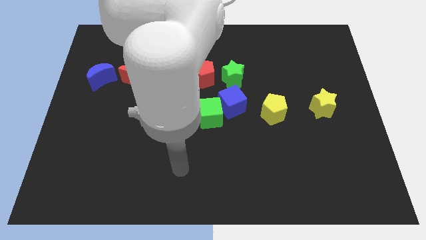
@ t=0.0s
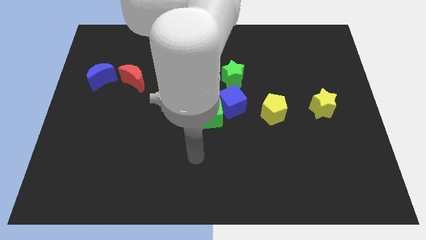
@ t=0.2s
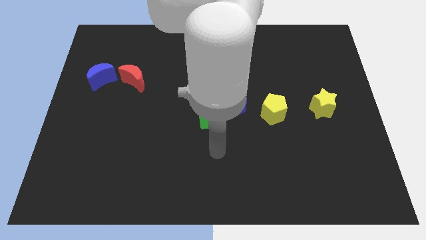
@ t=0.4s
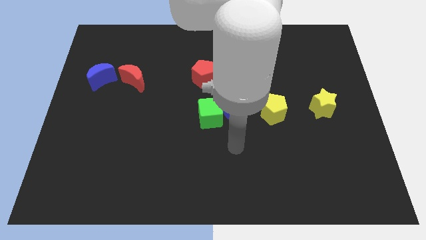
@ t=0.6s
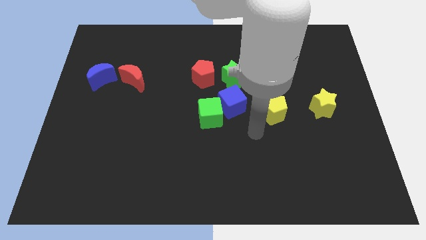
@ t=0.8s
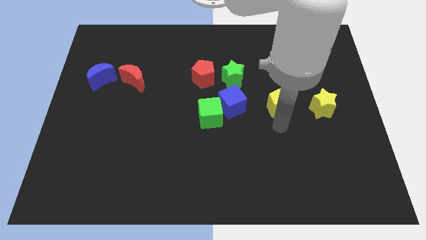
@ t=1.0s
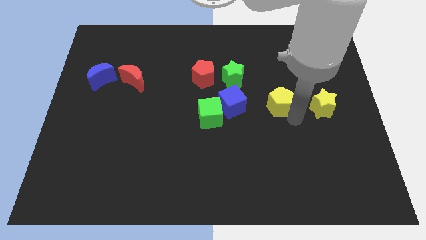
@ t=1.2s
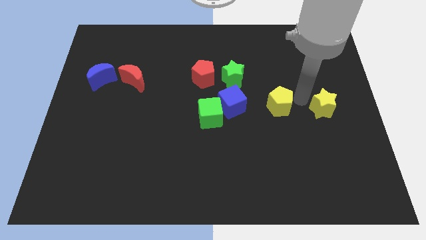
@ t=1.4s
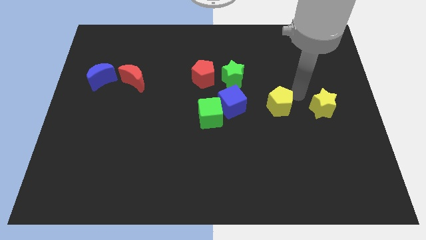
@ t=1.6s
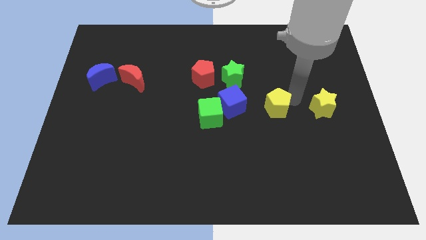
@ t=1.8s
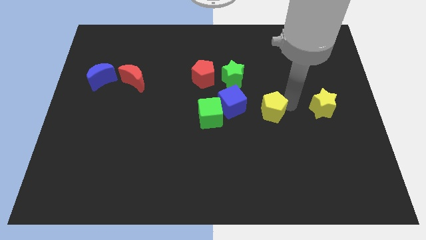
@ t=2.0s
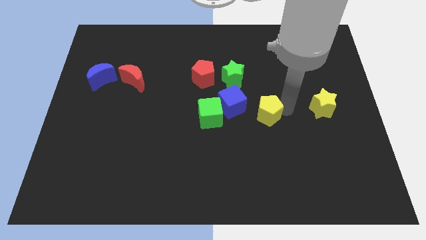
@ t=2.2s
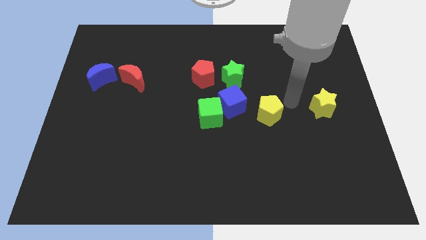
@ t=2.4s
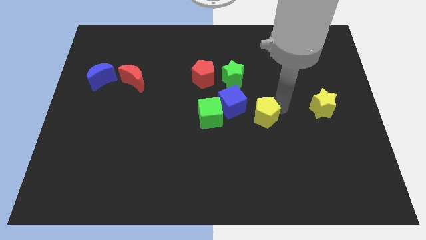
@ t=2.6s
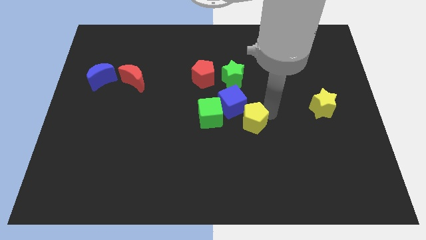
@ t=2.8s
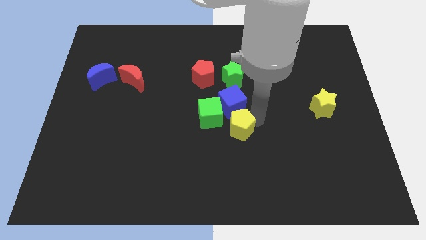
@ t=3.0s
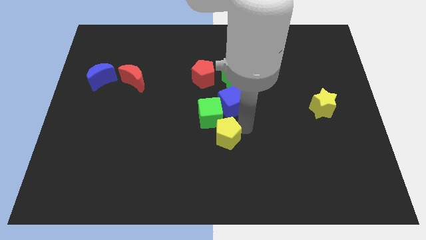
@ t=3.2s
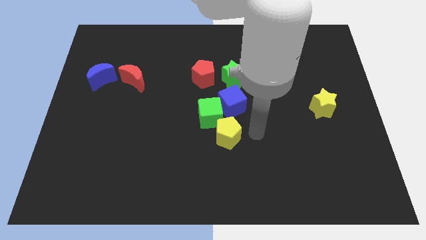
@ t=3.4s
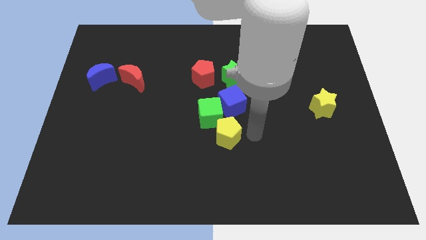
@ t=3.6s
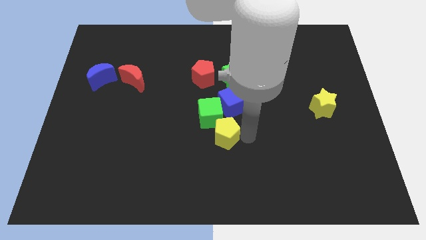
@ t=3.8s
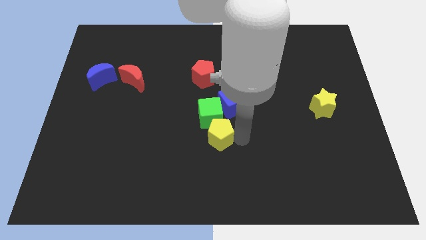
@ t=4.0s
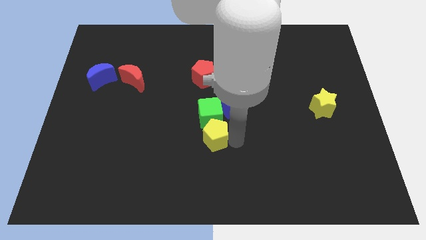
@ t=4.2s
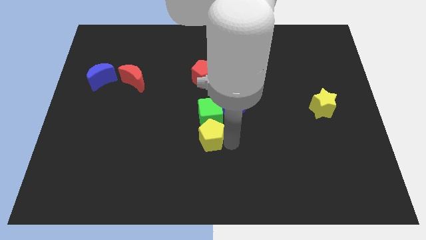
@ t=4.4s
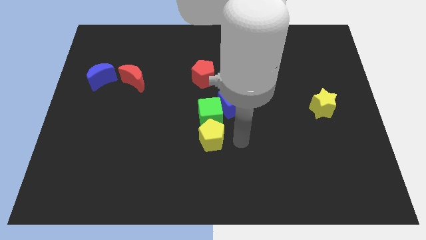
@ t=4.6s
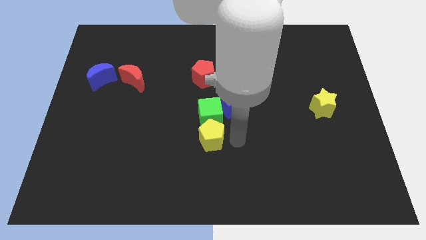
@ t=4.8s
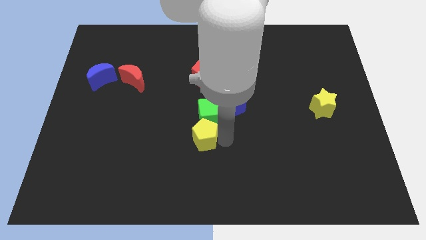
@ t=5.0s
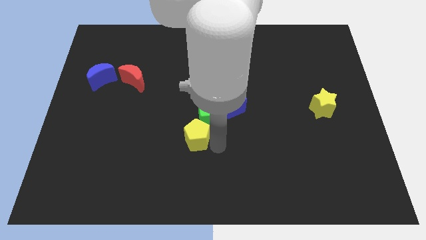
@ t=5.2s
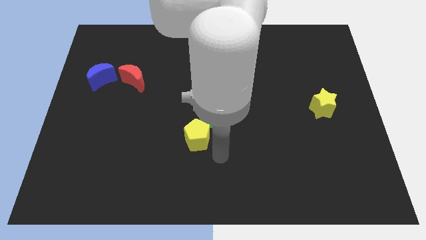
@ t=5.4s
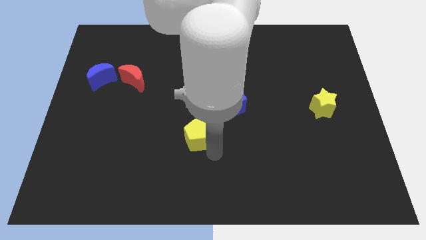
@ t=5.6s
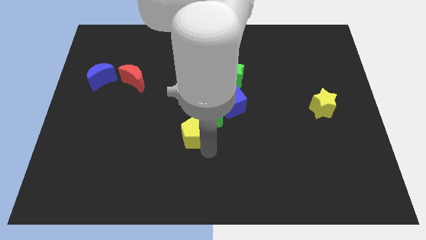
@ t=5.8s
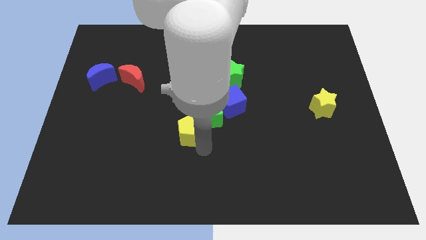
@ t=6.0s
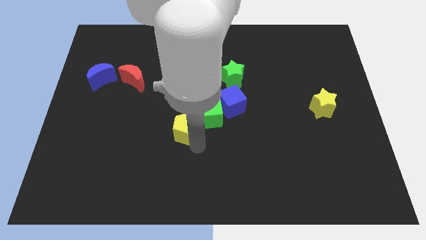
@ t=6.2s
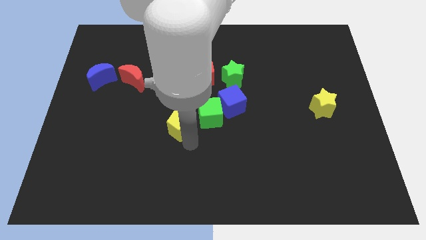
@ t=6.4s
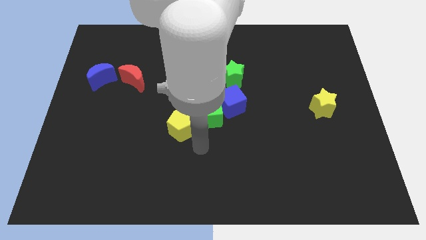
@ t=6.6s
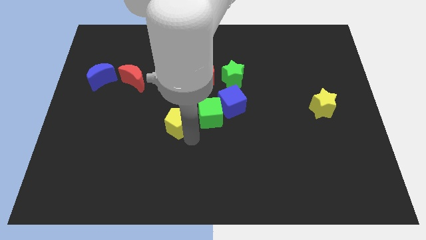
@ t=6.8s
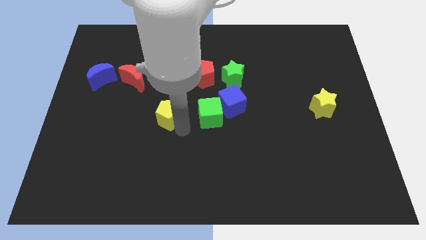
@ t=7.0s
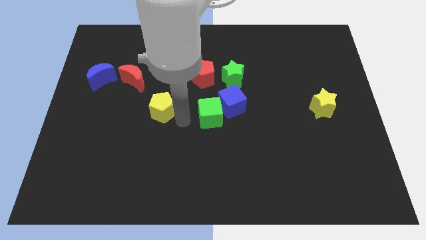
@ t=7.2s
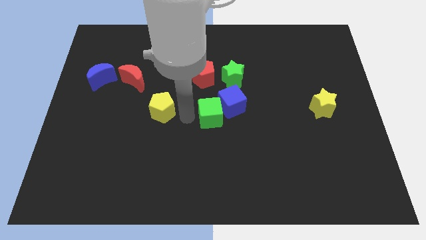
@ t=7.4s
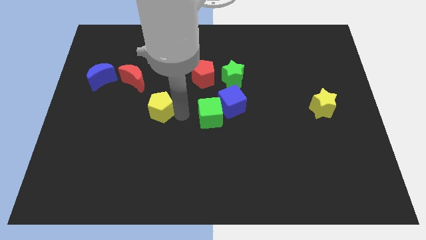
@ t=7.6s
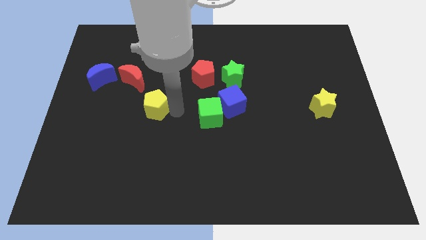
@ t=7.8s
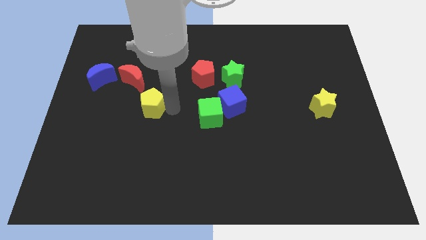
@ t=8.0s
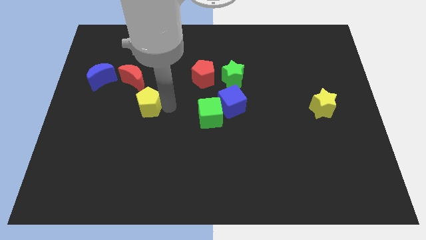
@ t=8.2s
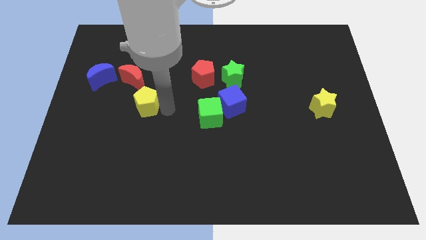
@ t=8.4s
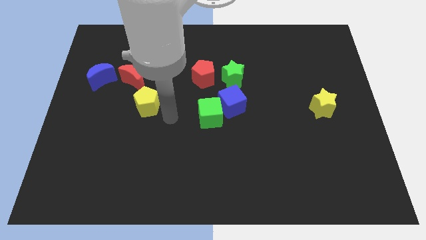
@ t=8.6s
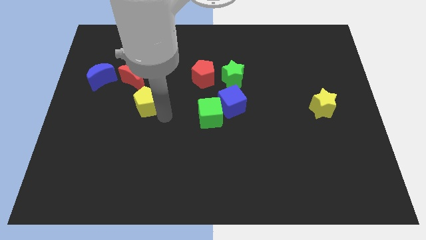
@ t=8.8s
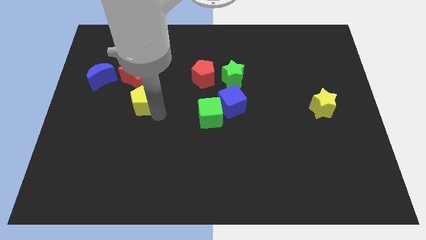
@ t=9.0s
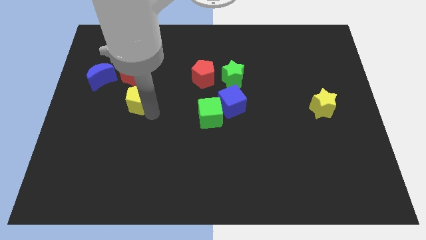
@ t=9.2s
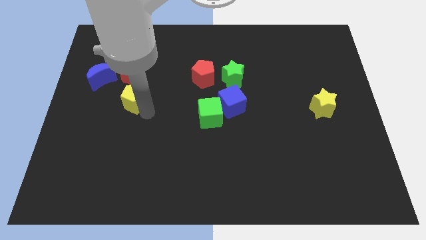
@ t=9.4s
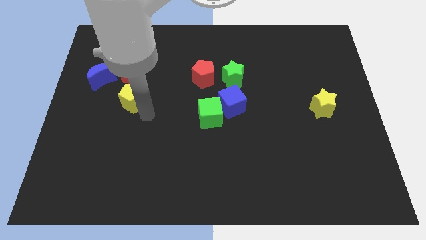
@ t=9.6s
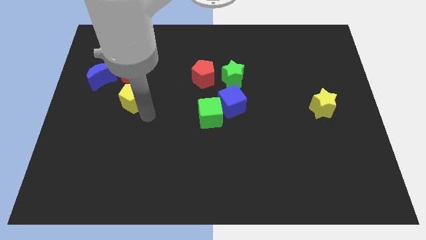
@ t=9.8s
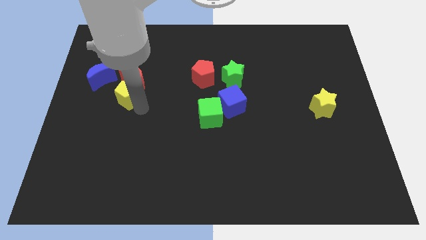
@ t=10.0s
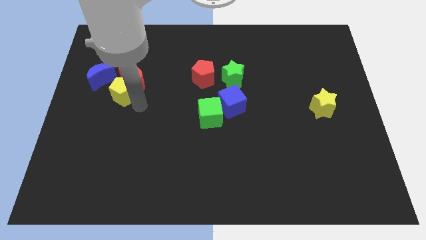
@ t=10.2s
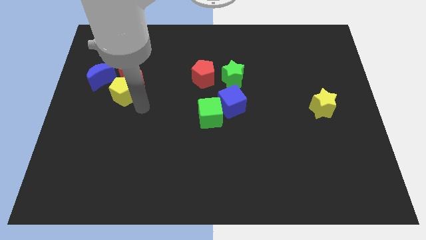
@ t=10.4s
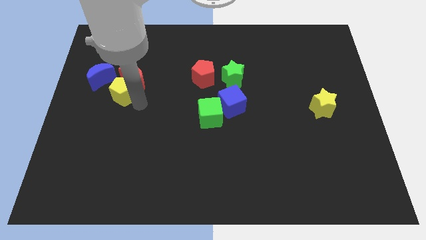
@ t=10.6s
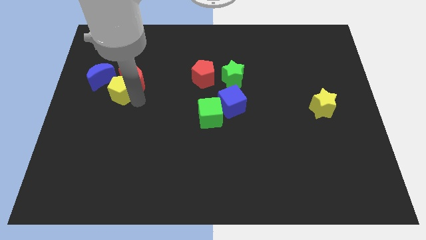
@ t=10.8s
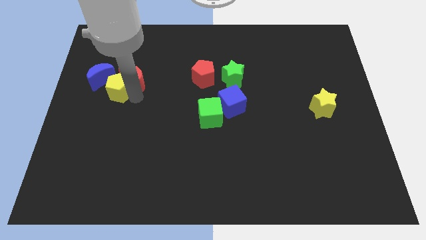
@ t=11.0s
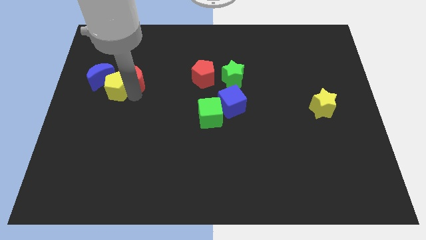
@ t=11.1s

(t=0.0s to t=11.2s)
push the yellow pentagon next to the blue moon

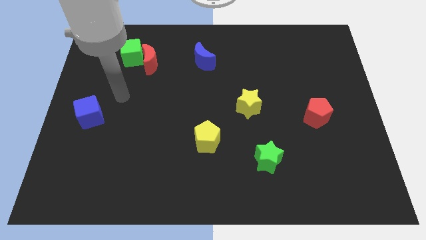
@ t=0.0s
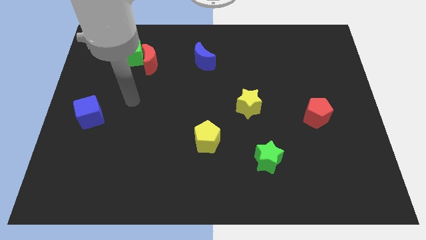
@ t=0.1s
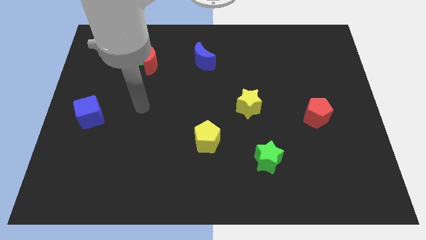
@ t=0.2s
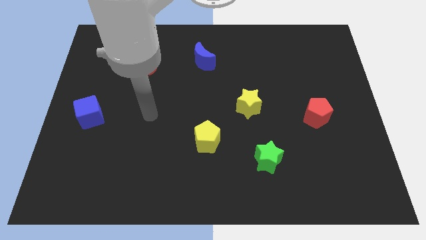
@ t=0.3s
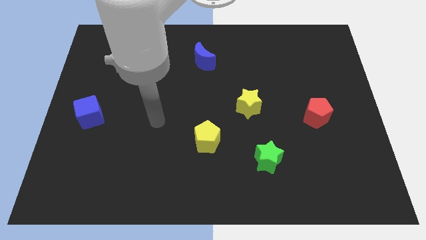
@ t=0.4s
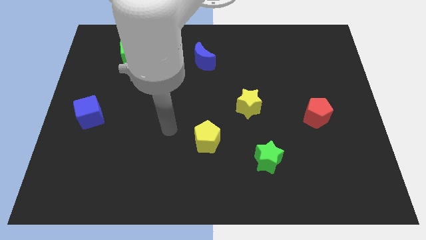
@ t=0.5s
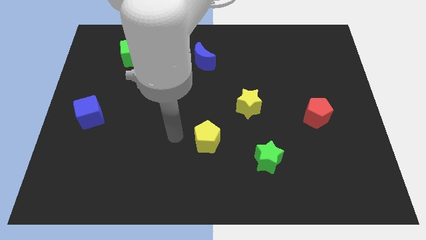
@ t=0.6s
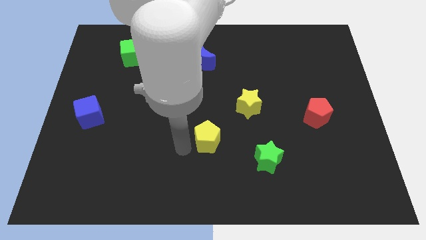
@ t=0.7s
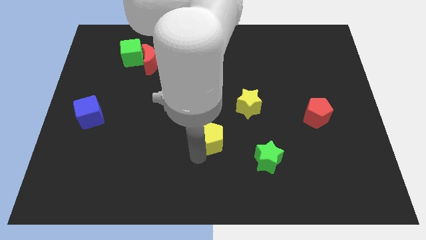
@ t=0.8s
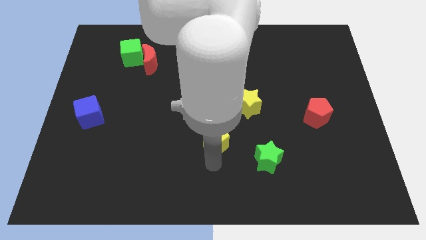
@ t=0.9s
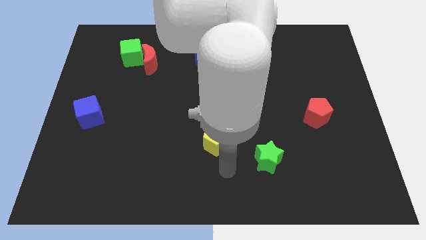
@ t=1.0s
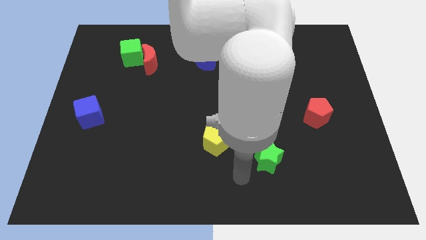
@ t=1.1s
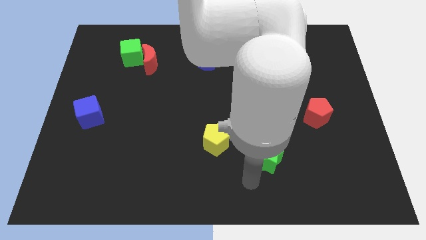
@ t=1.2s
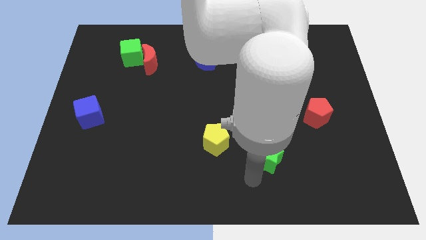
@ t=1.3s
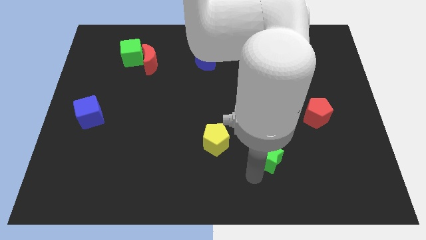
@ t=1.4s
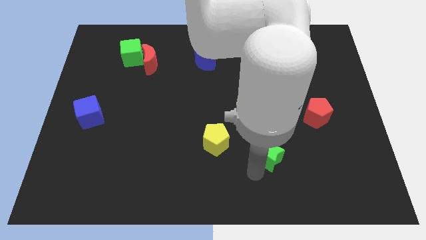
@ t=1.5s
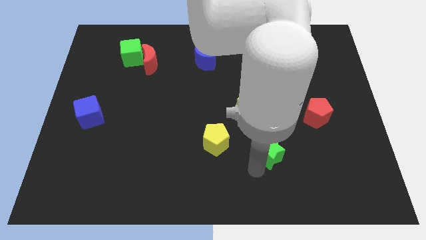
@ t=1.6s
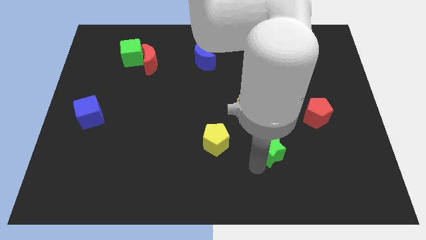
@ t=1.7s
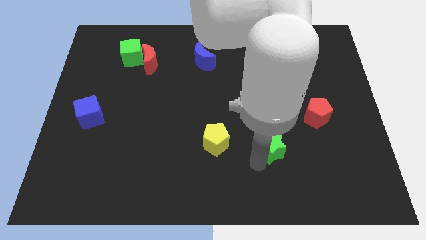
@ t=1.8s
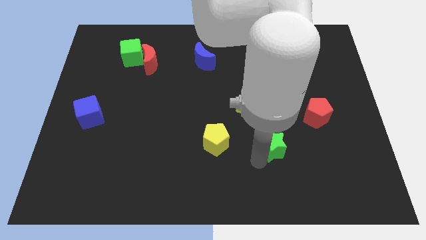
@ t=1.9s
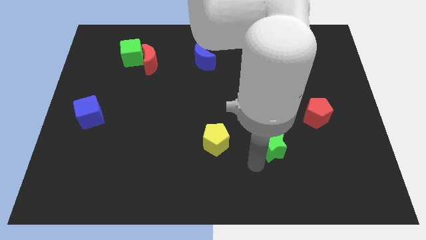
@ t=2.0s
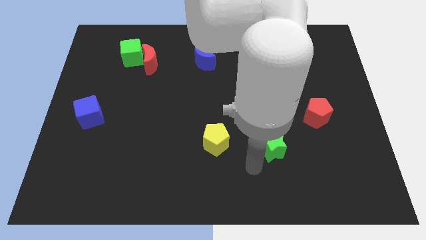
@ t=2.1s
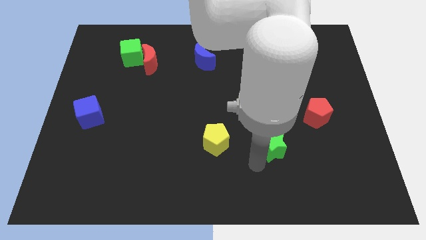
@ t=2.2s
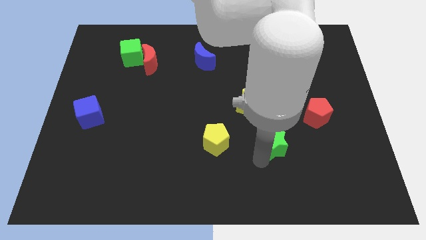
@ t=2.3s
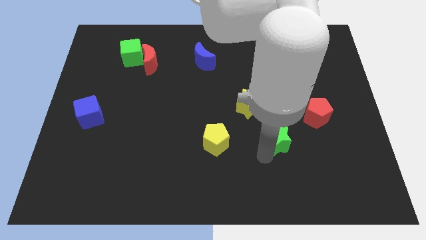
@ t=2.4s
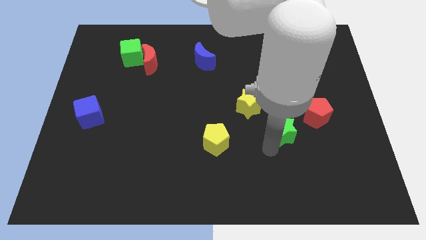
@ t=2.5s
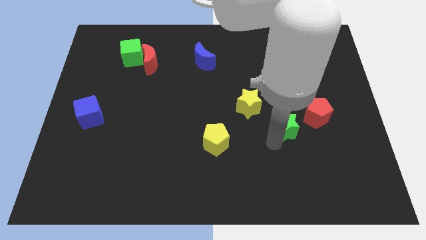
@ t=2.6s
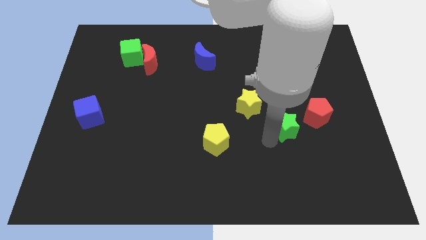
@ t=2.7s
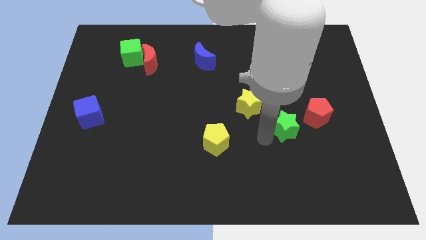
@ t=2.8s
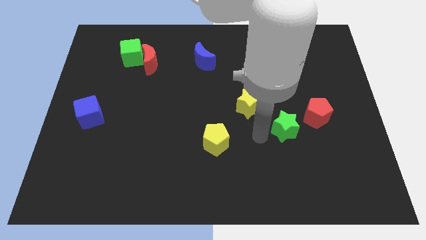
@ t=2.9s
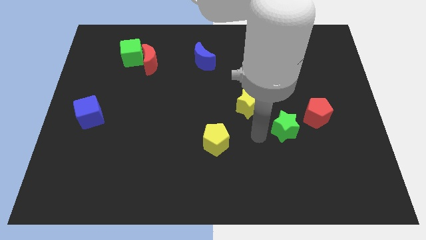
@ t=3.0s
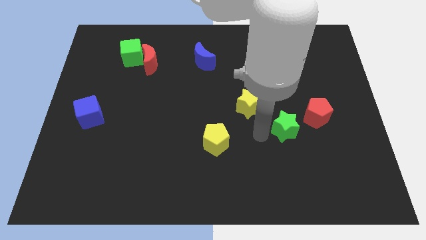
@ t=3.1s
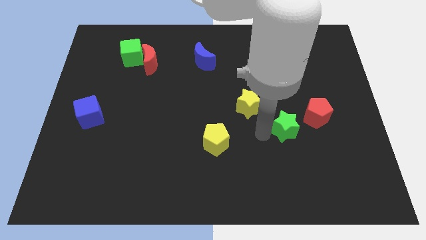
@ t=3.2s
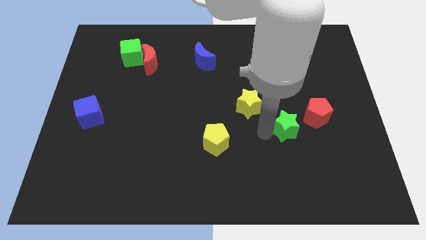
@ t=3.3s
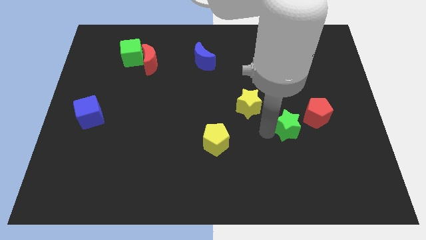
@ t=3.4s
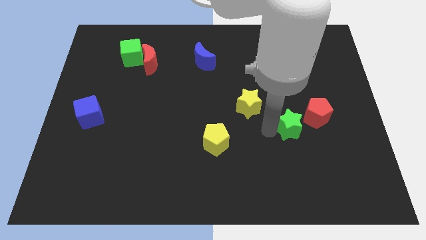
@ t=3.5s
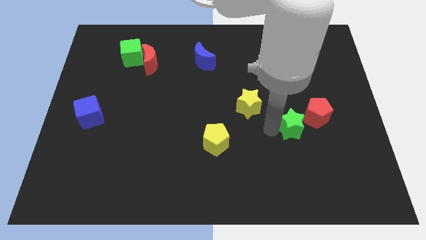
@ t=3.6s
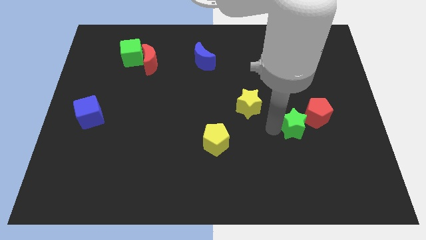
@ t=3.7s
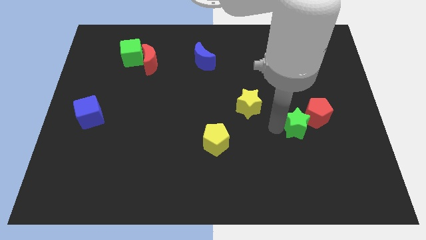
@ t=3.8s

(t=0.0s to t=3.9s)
slide the green star to the red pentagon
